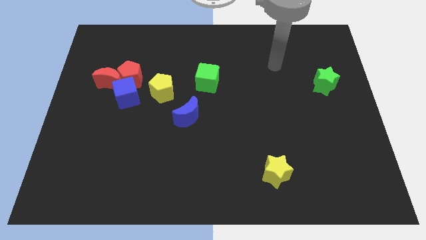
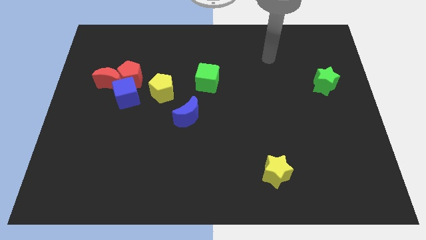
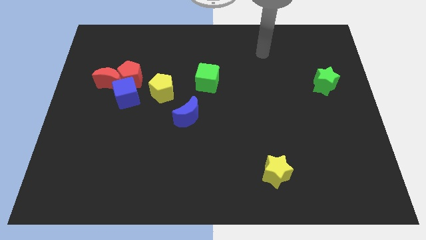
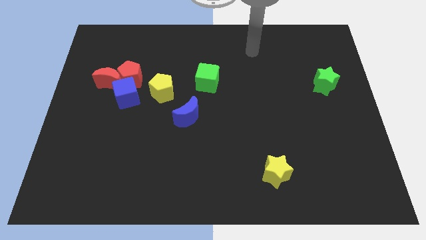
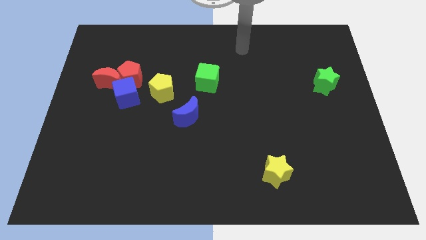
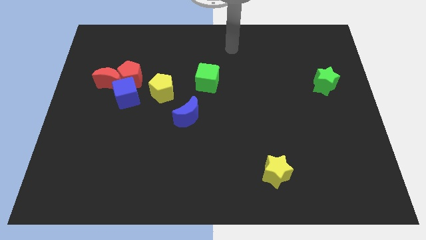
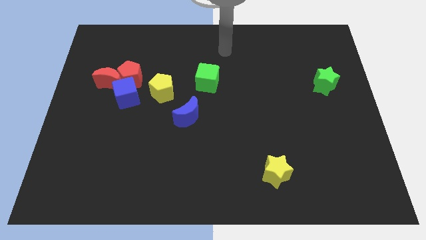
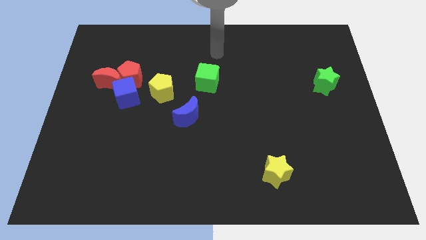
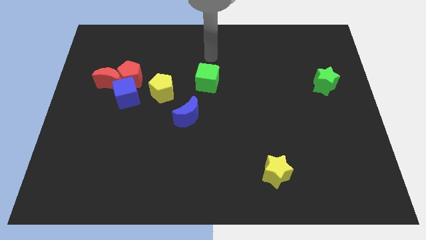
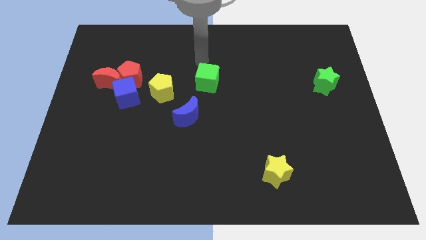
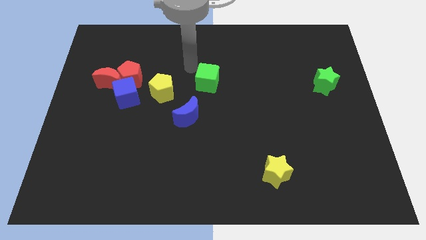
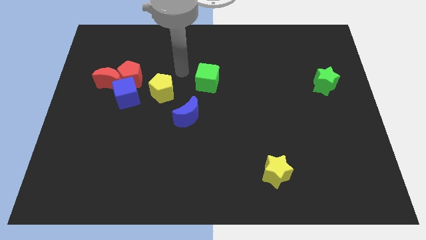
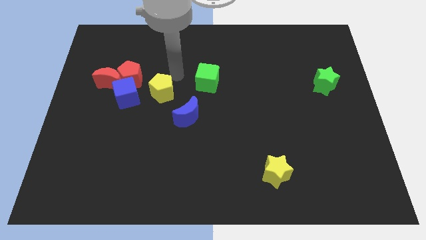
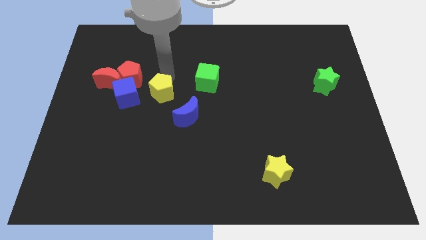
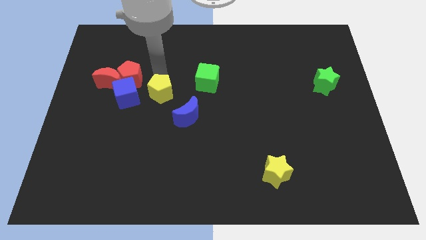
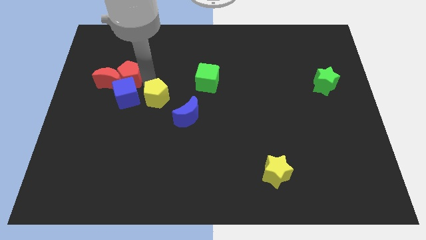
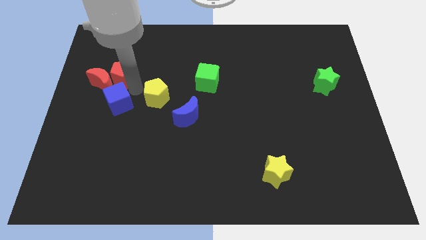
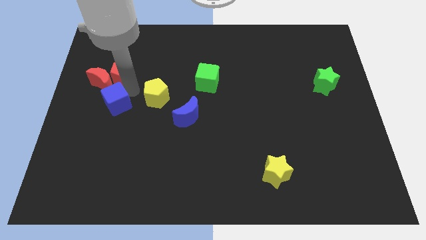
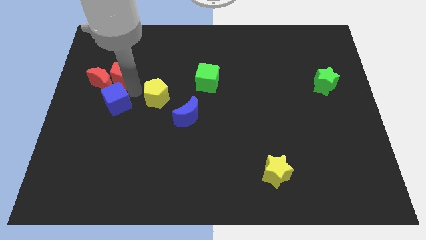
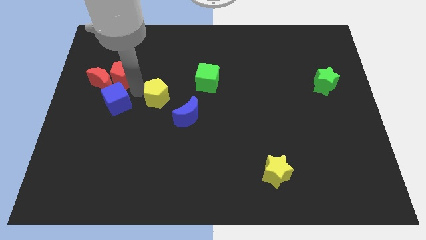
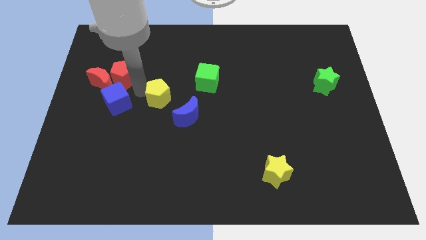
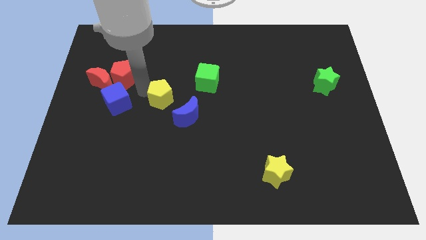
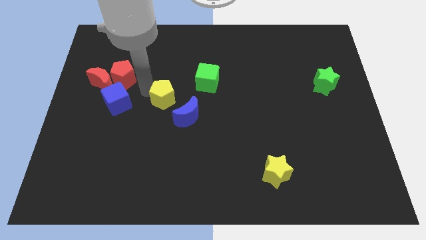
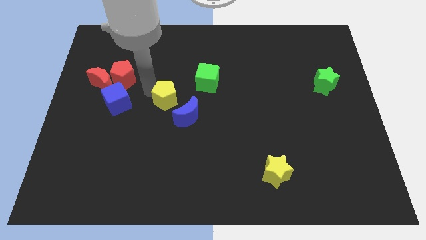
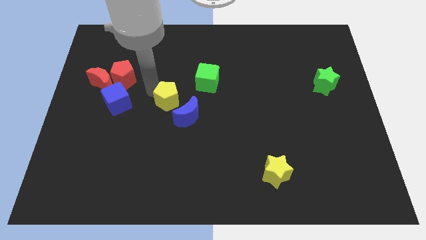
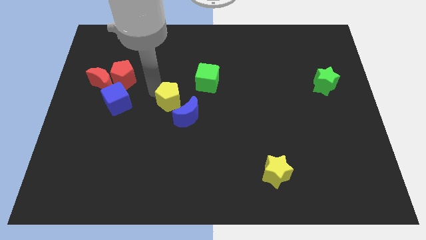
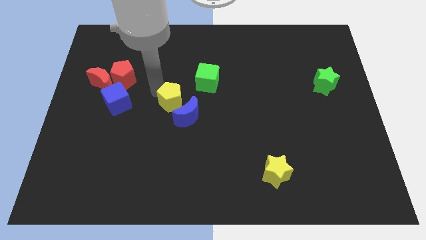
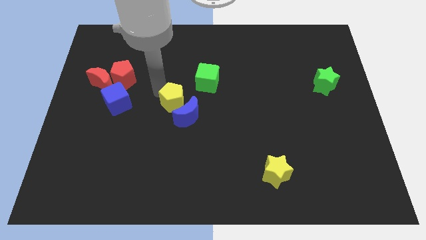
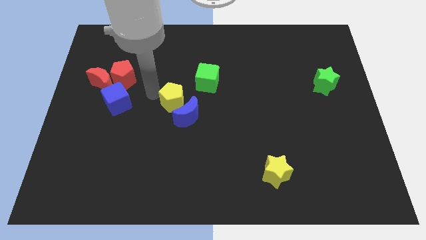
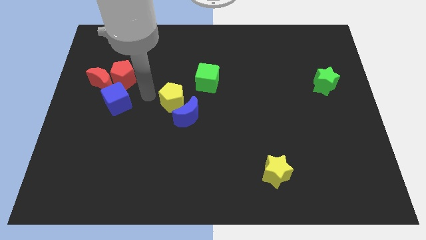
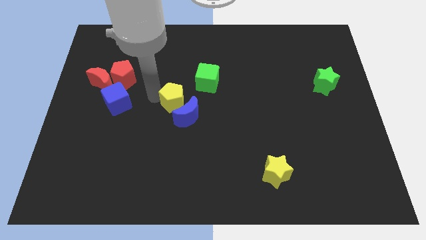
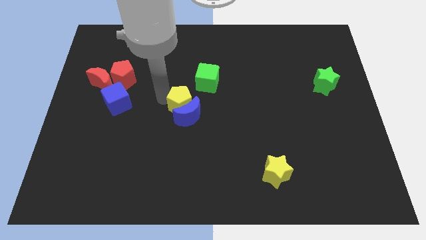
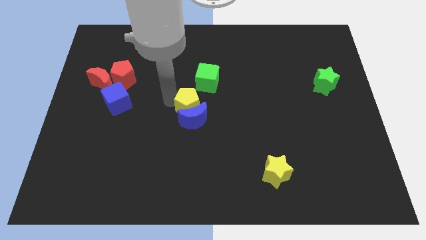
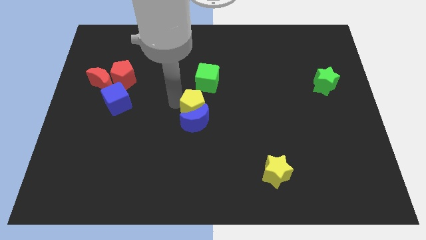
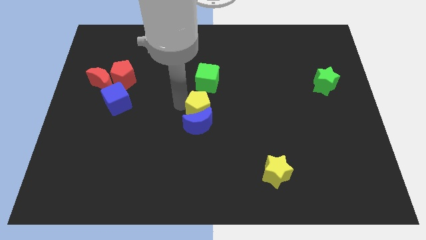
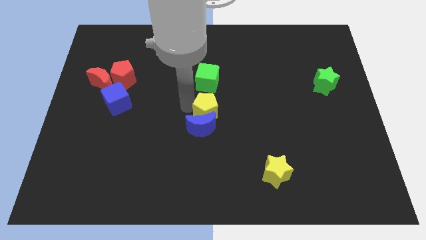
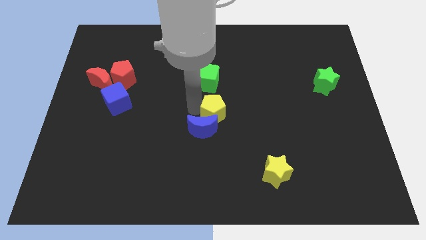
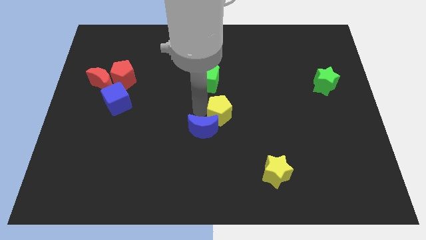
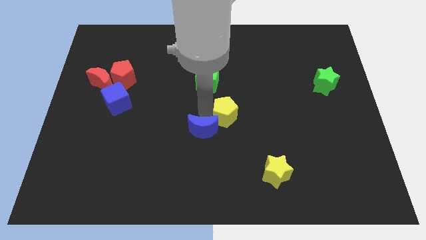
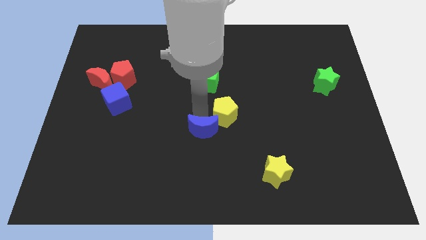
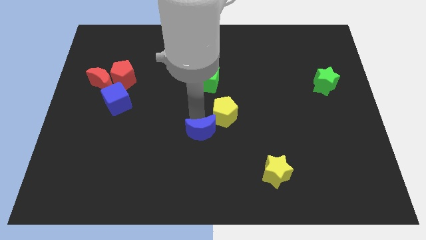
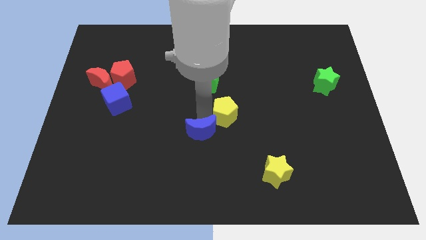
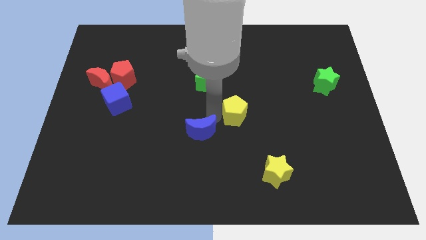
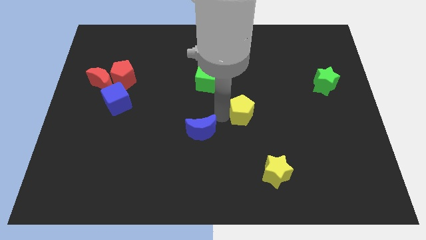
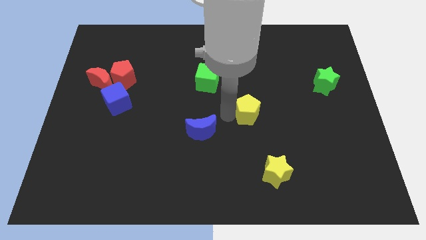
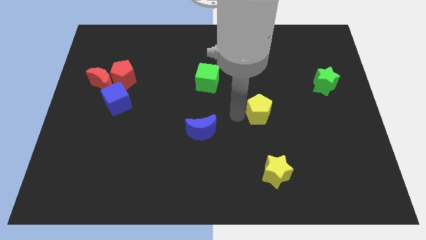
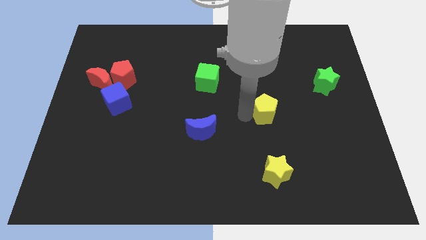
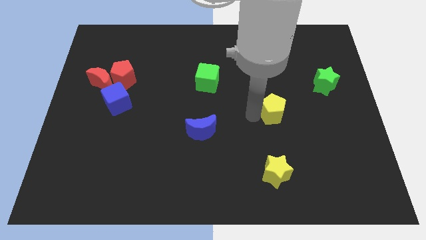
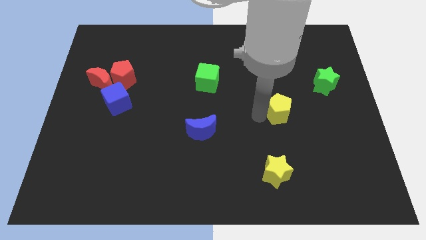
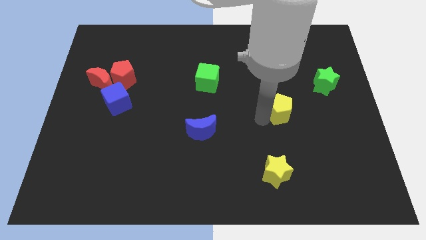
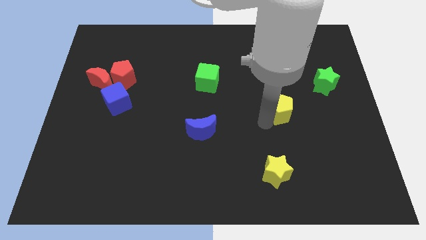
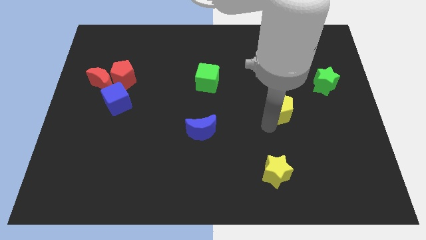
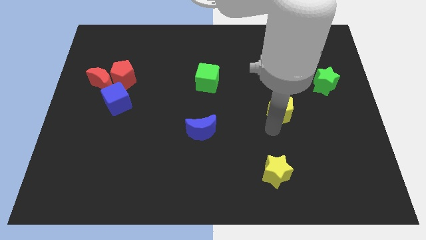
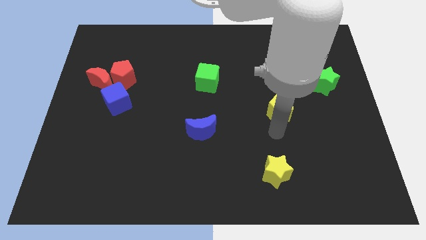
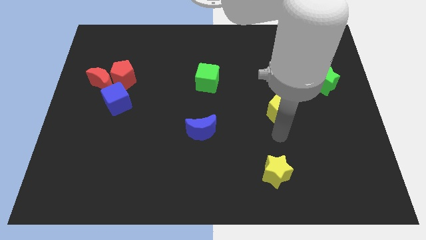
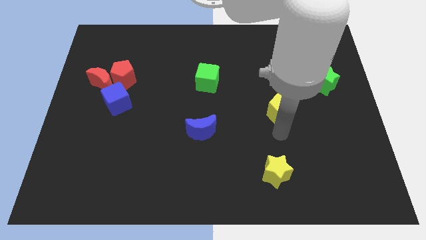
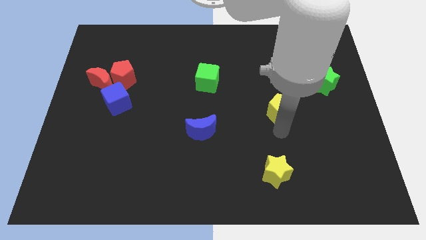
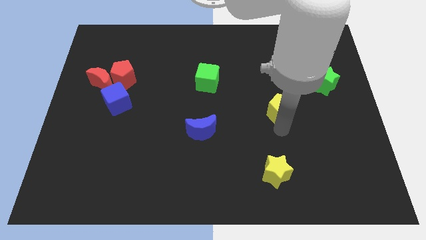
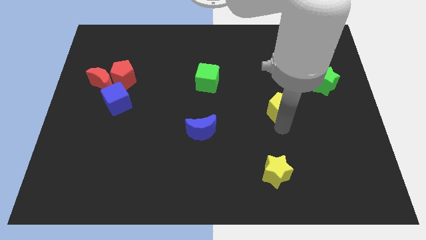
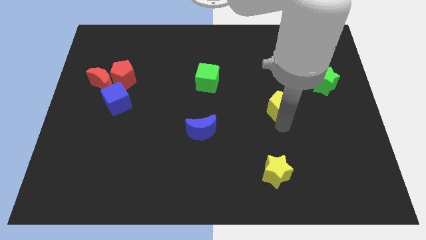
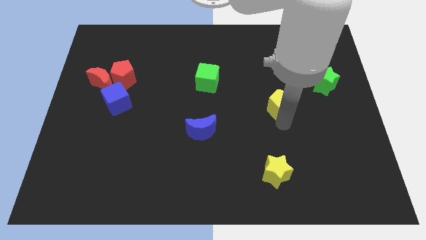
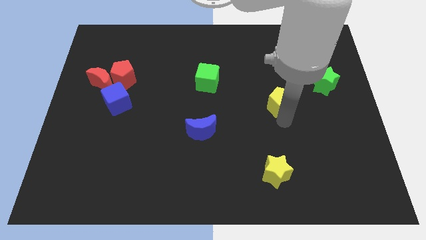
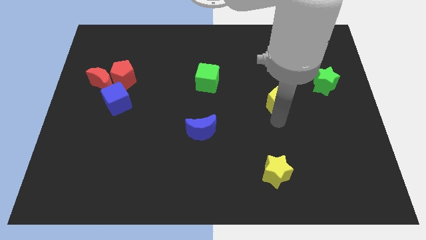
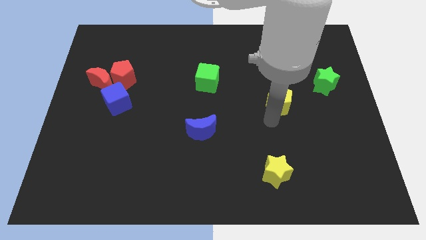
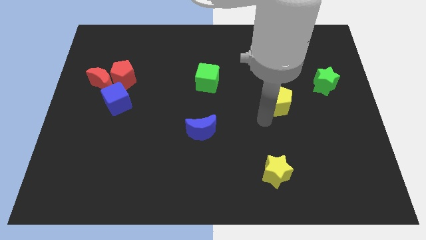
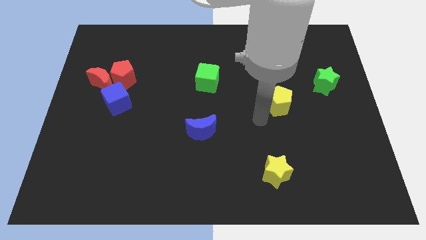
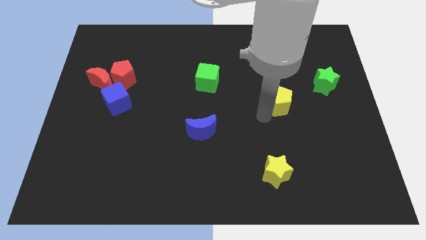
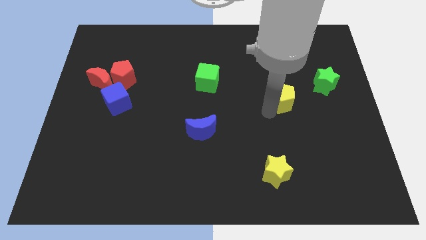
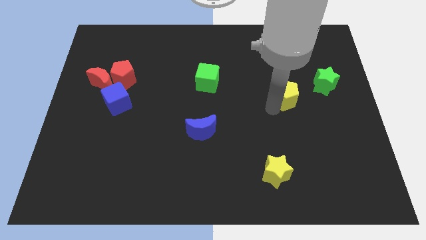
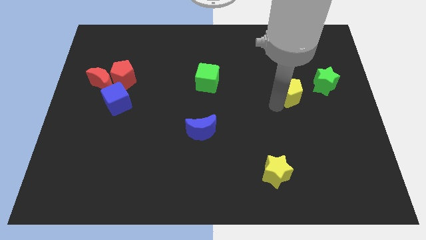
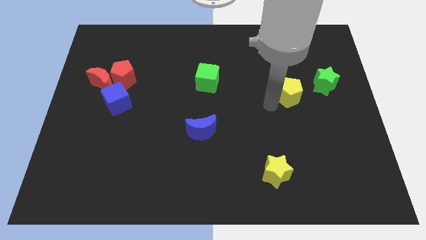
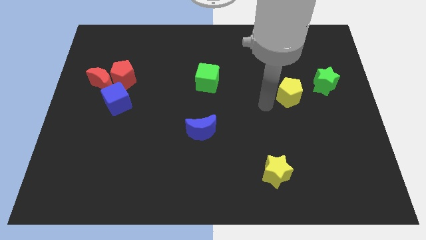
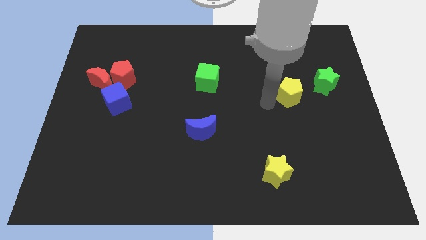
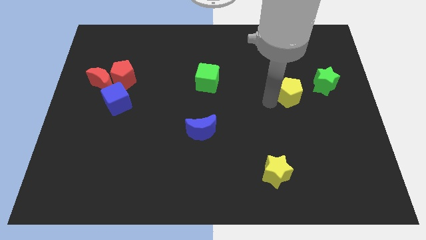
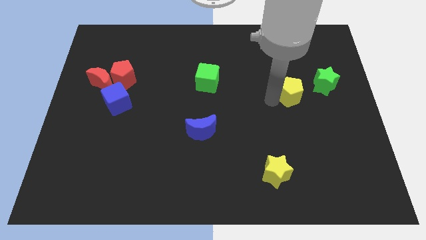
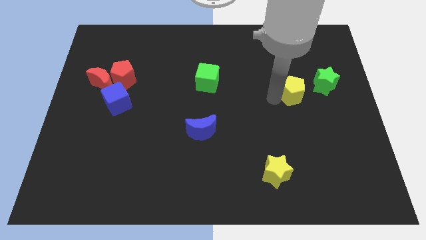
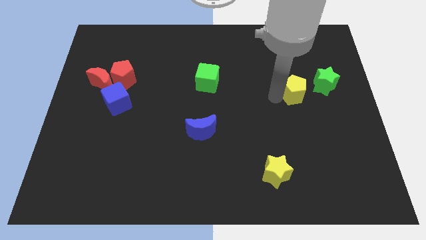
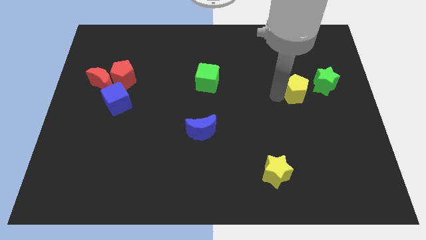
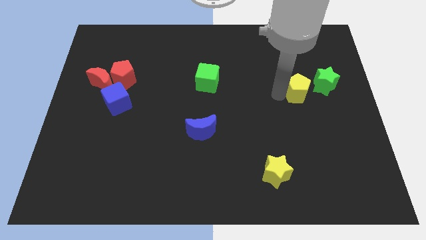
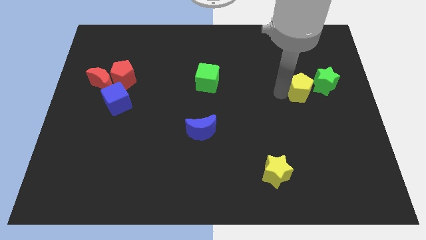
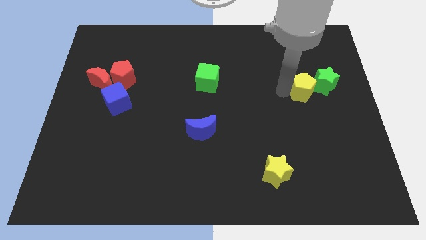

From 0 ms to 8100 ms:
slide the yellow pentagon to the green star
